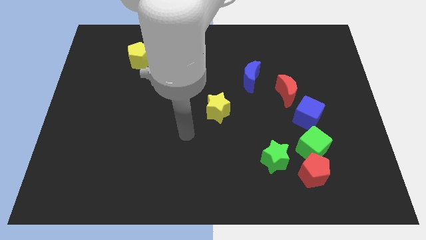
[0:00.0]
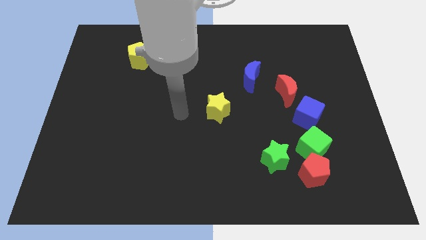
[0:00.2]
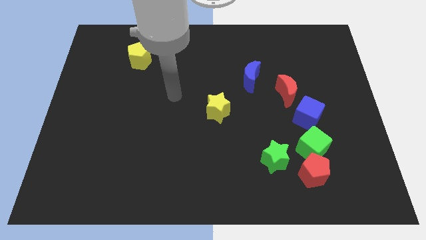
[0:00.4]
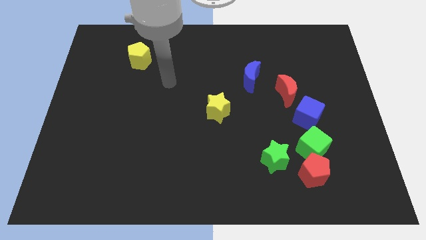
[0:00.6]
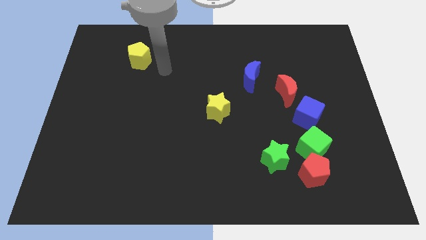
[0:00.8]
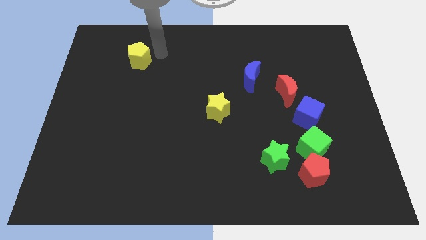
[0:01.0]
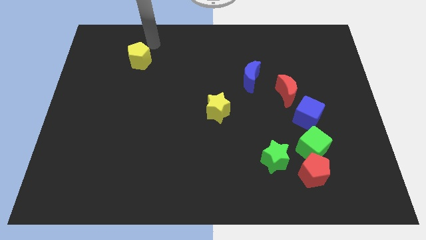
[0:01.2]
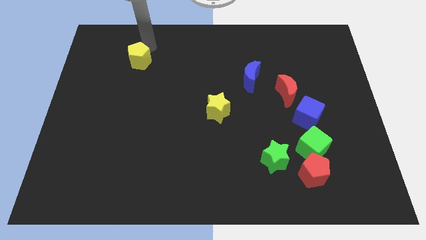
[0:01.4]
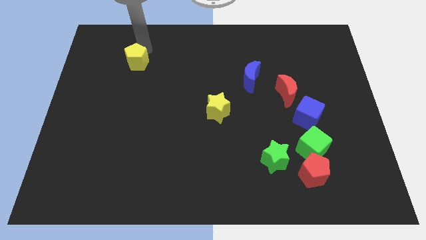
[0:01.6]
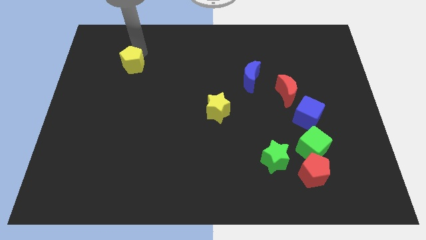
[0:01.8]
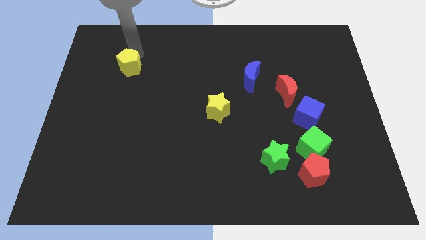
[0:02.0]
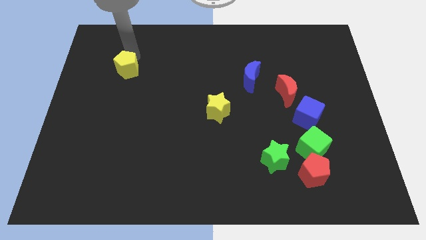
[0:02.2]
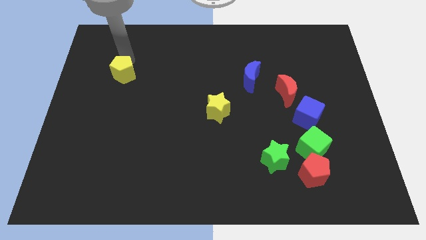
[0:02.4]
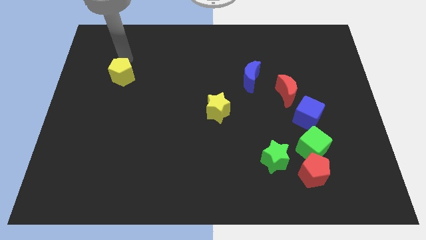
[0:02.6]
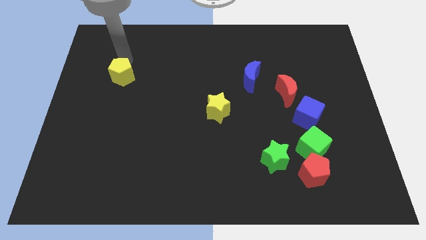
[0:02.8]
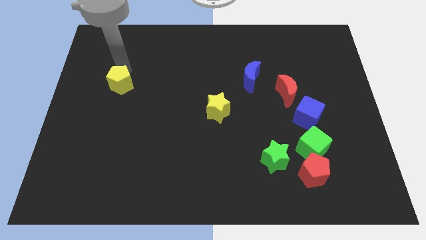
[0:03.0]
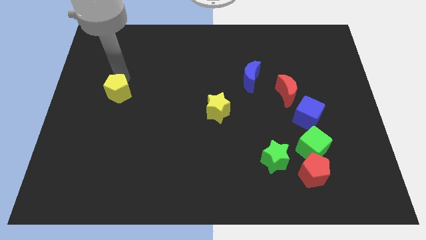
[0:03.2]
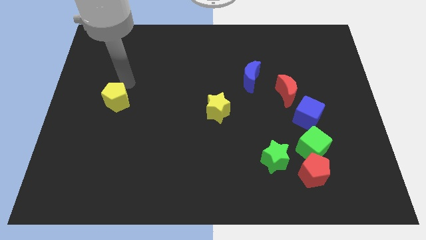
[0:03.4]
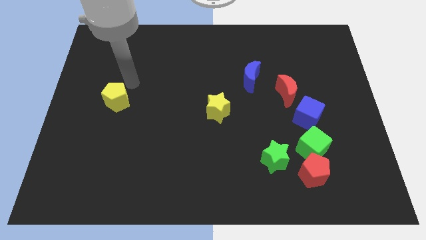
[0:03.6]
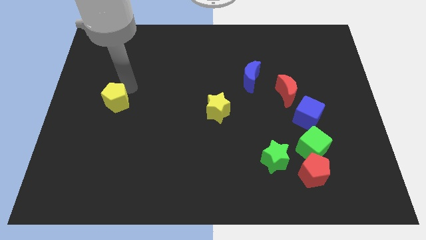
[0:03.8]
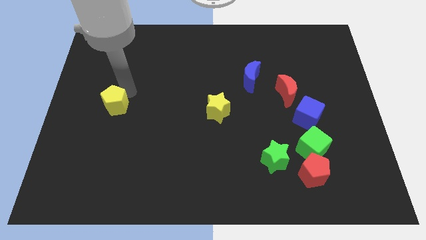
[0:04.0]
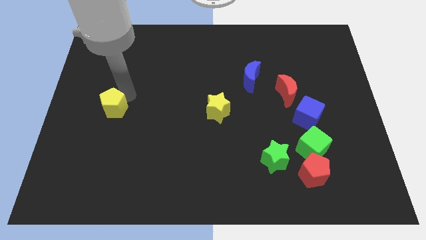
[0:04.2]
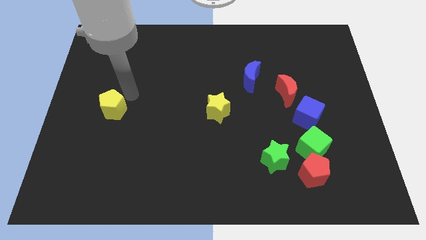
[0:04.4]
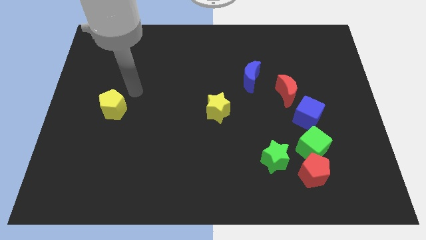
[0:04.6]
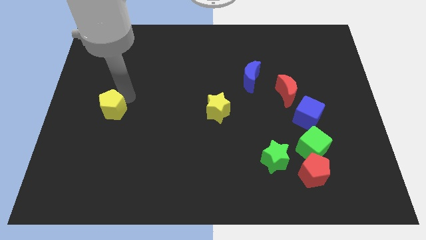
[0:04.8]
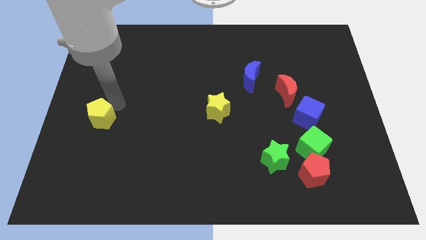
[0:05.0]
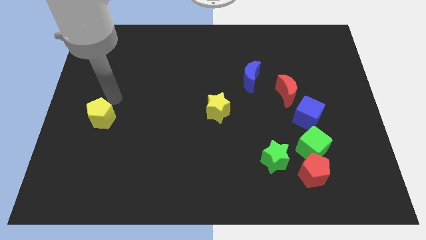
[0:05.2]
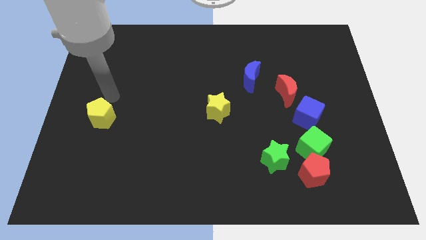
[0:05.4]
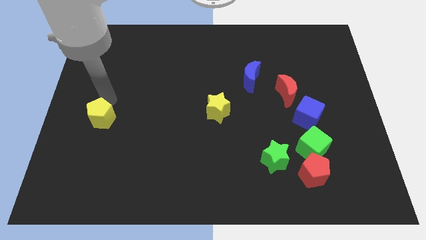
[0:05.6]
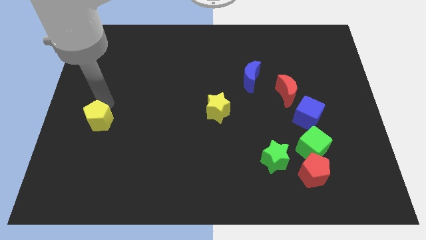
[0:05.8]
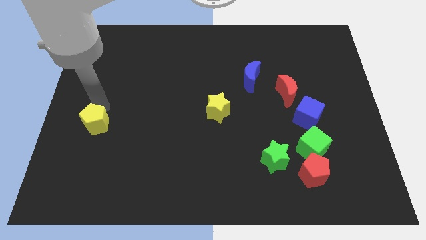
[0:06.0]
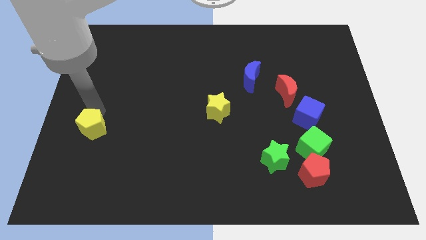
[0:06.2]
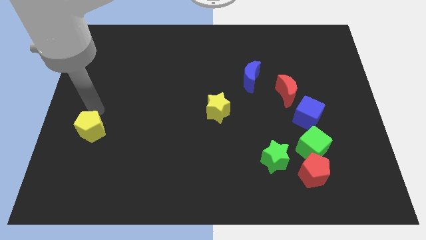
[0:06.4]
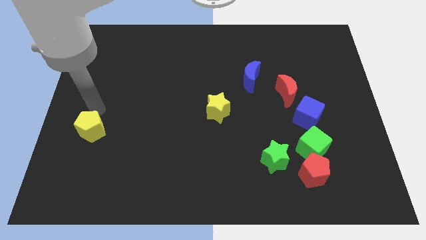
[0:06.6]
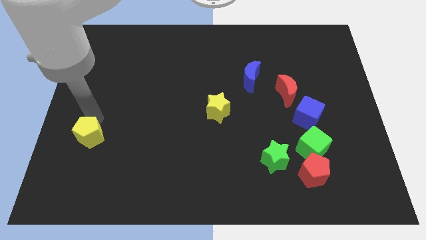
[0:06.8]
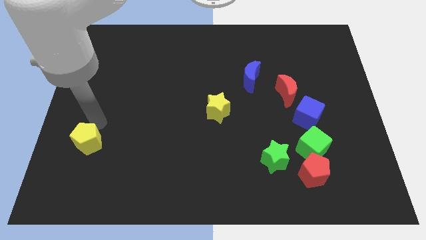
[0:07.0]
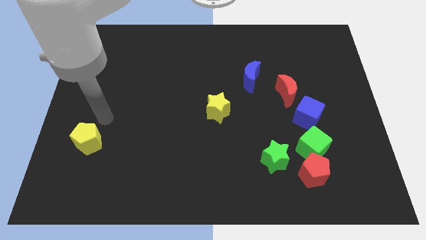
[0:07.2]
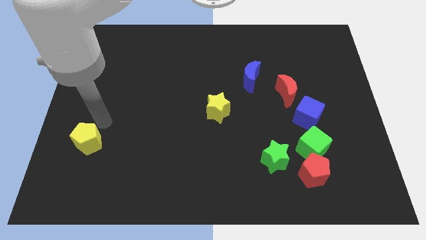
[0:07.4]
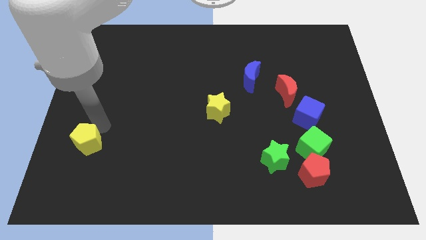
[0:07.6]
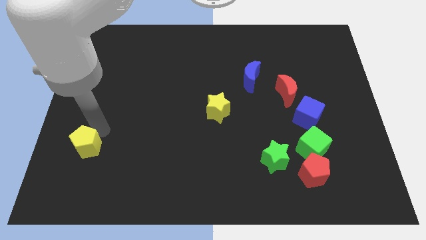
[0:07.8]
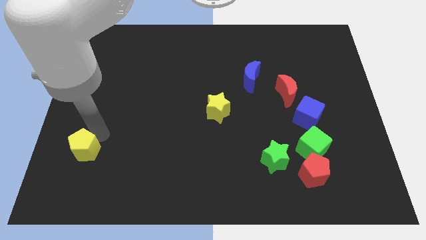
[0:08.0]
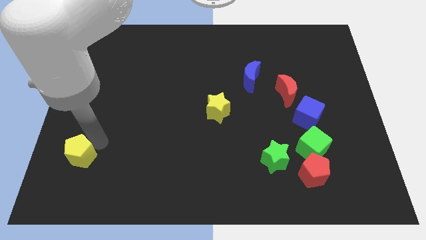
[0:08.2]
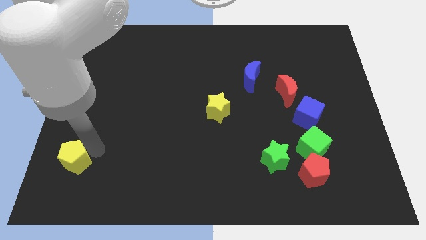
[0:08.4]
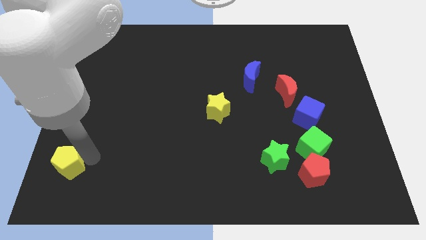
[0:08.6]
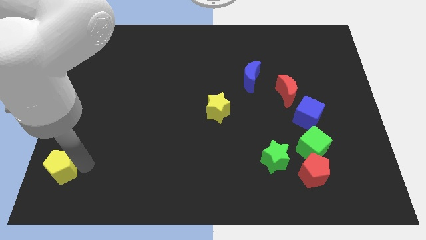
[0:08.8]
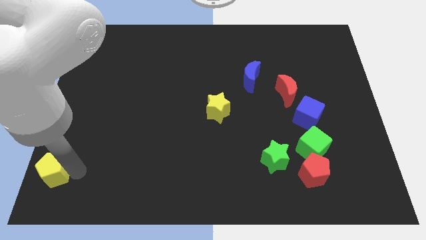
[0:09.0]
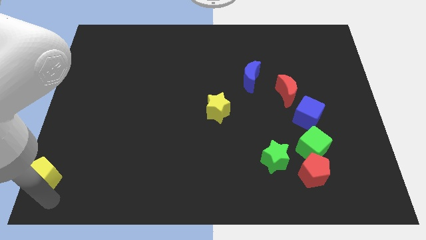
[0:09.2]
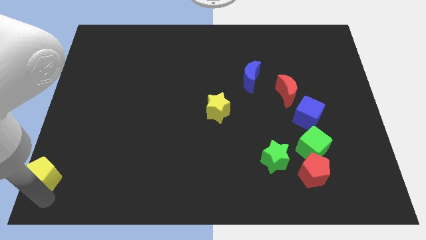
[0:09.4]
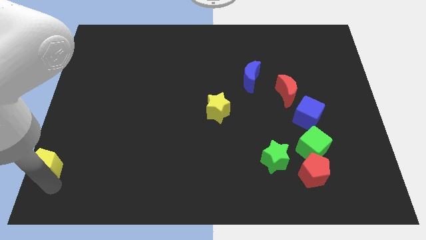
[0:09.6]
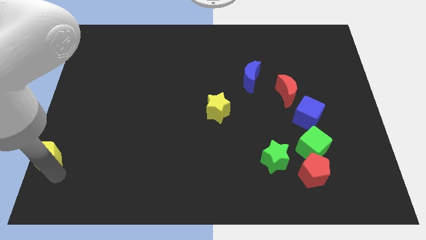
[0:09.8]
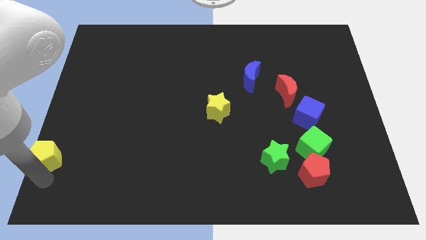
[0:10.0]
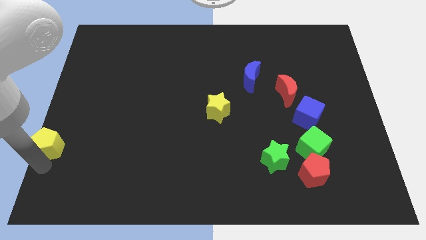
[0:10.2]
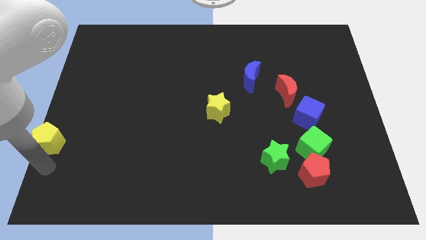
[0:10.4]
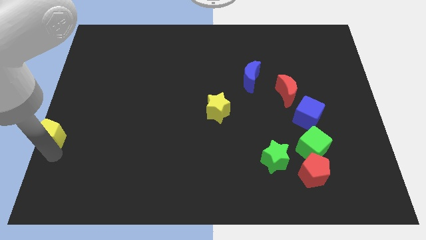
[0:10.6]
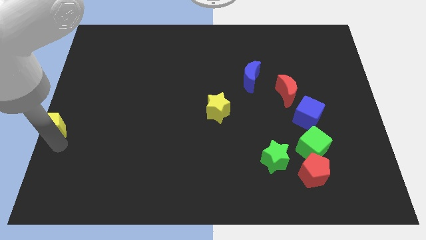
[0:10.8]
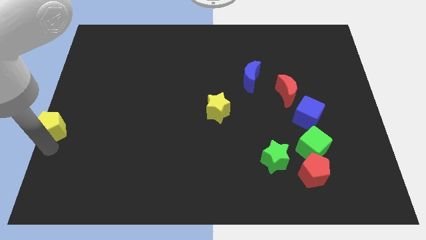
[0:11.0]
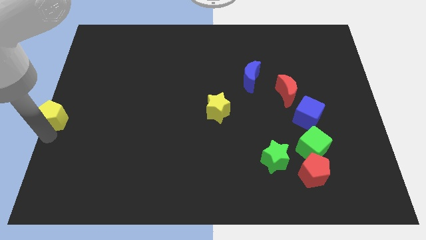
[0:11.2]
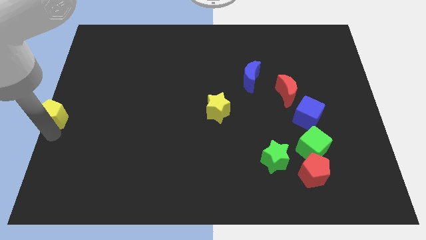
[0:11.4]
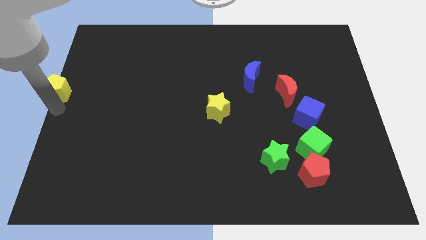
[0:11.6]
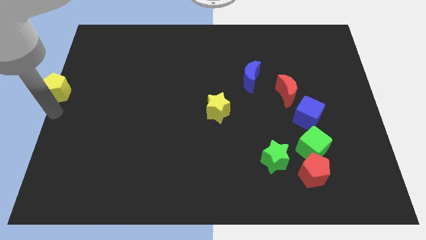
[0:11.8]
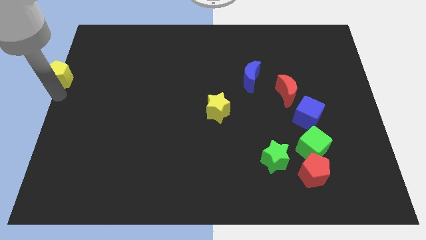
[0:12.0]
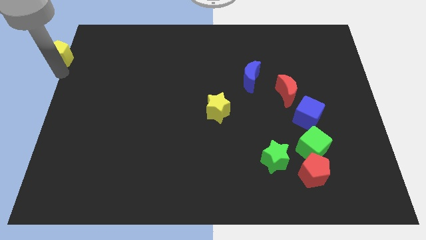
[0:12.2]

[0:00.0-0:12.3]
move the yellow pentagon to the top left of the board
